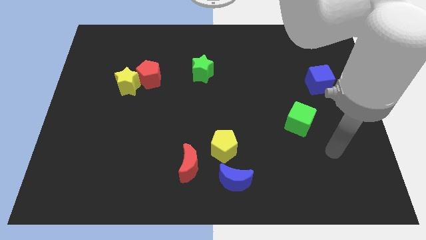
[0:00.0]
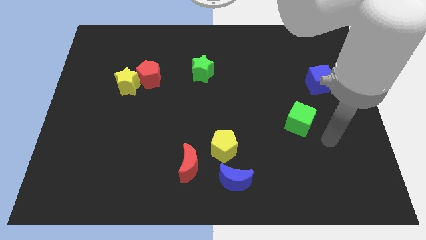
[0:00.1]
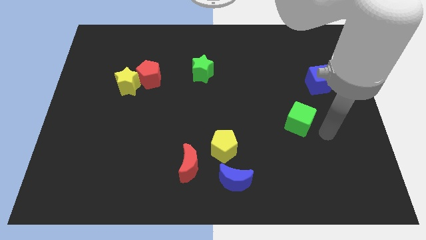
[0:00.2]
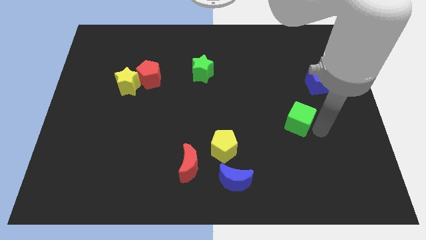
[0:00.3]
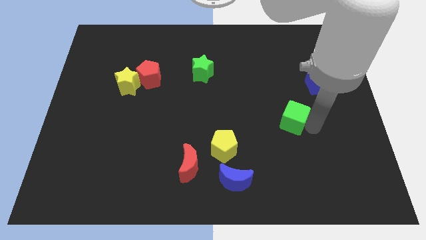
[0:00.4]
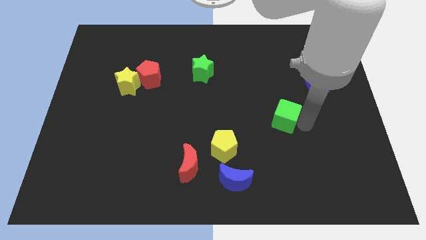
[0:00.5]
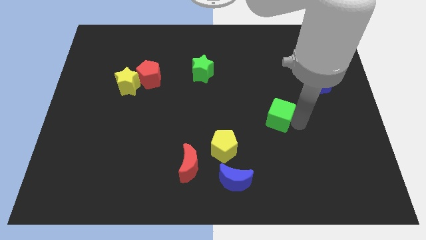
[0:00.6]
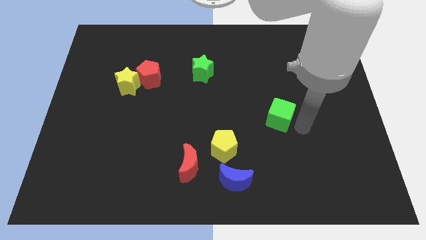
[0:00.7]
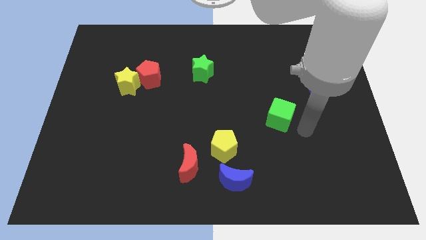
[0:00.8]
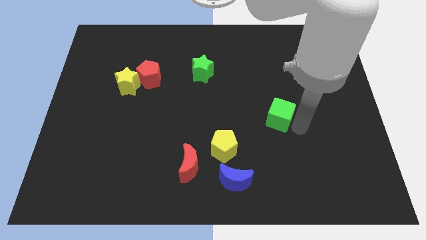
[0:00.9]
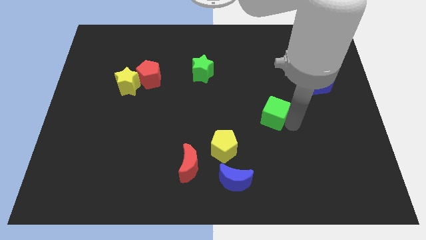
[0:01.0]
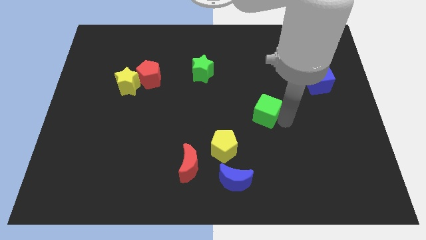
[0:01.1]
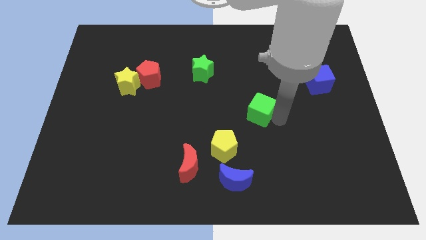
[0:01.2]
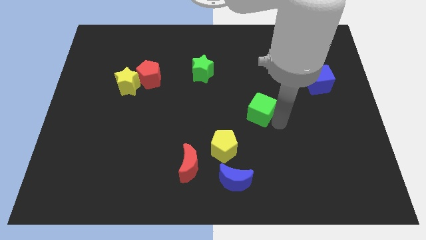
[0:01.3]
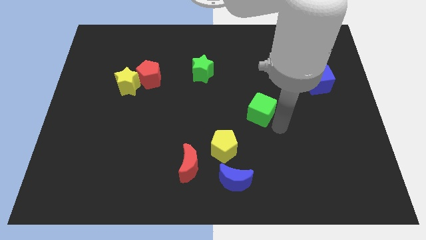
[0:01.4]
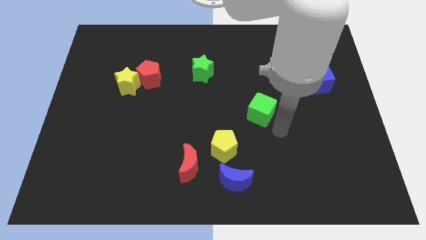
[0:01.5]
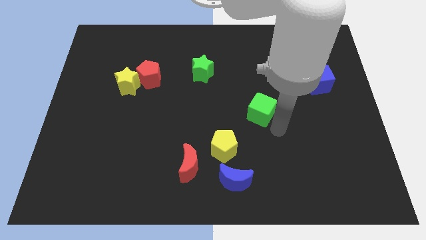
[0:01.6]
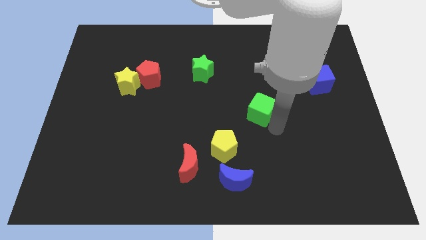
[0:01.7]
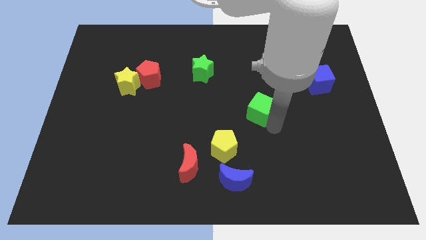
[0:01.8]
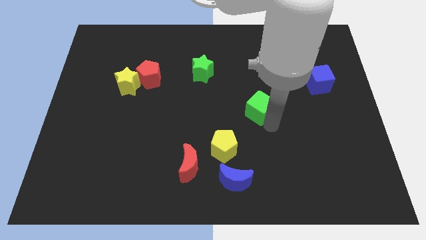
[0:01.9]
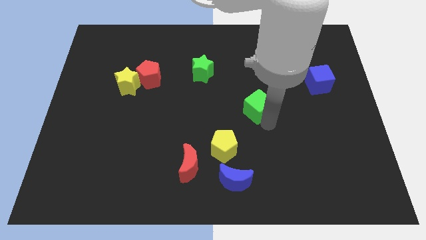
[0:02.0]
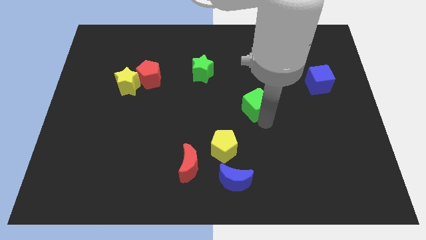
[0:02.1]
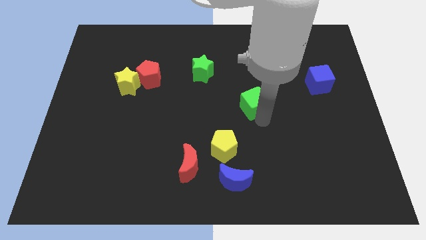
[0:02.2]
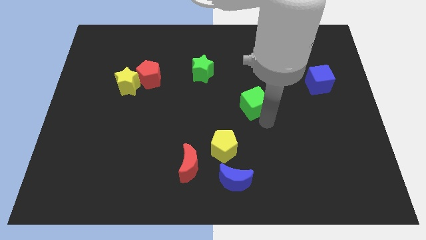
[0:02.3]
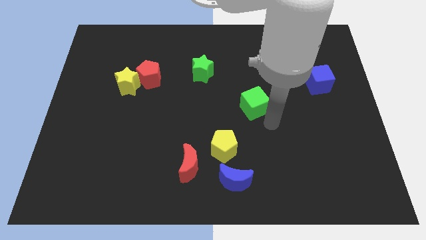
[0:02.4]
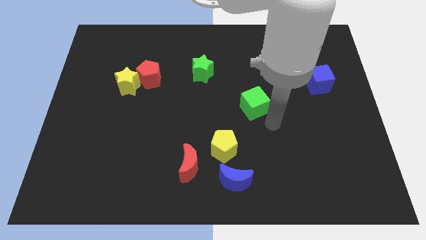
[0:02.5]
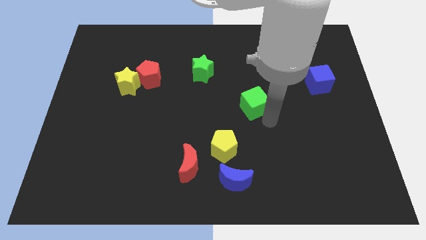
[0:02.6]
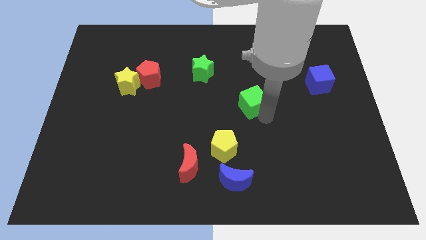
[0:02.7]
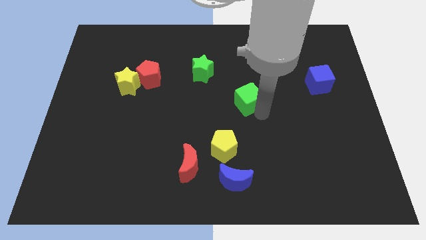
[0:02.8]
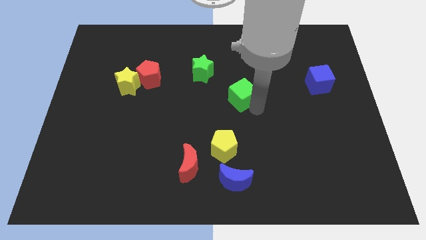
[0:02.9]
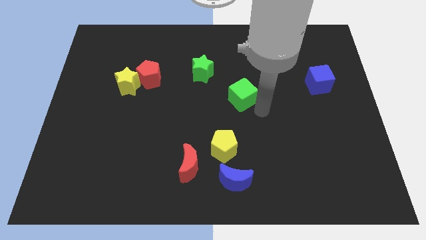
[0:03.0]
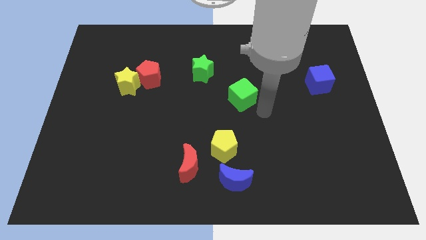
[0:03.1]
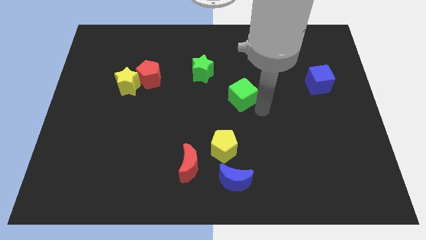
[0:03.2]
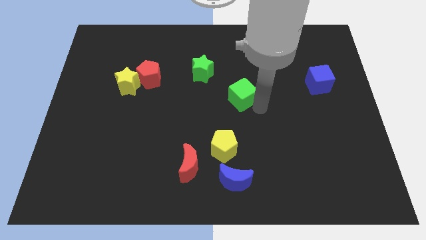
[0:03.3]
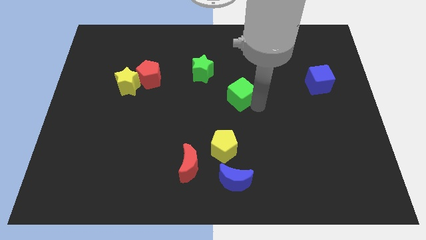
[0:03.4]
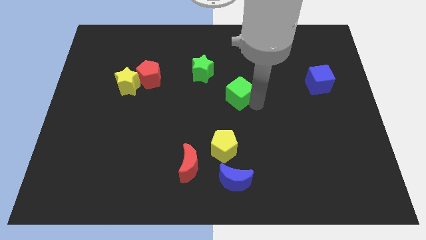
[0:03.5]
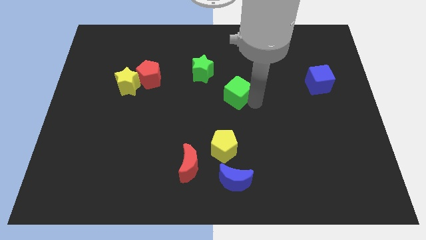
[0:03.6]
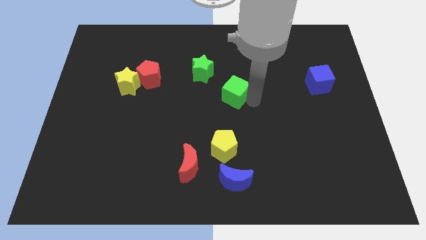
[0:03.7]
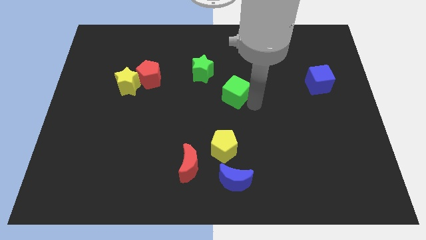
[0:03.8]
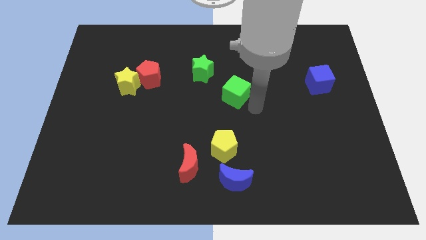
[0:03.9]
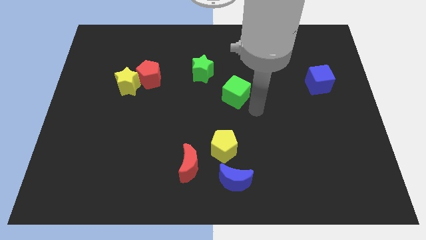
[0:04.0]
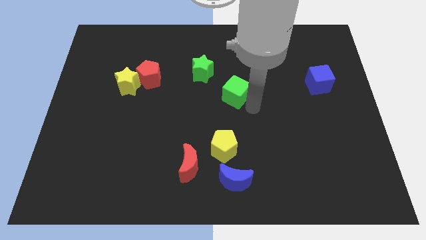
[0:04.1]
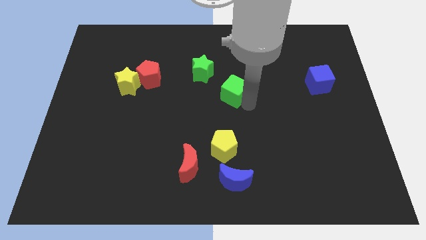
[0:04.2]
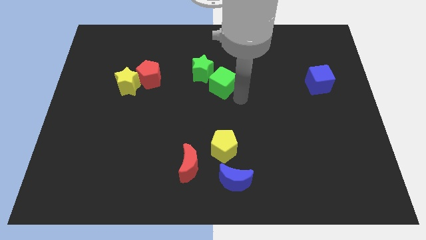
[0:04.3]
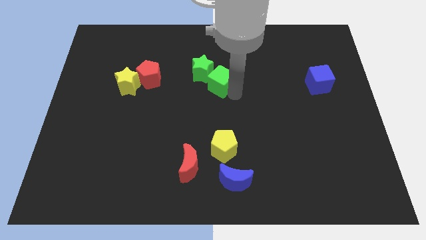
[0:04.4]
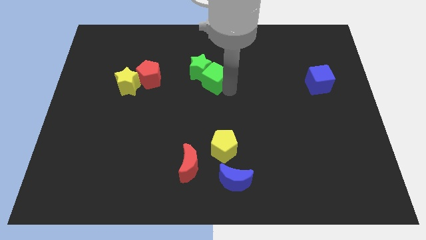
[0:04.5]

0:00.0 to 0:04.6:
slide the green cube towards the green star

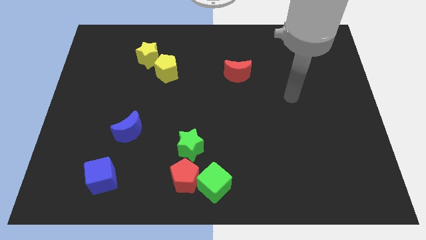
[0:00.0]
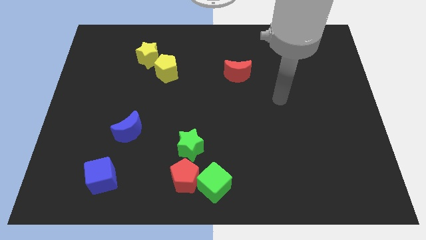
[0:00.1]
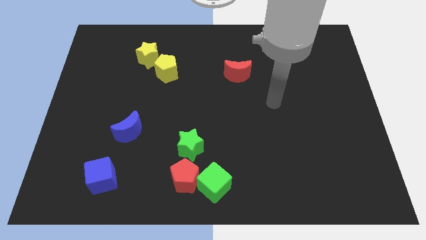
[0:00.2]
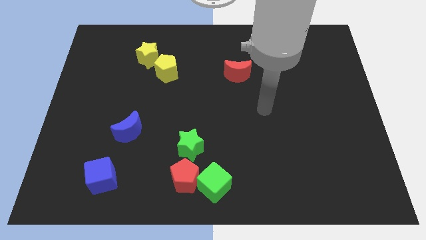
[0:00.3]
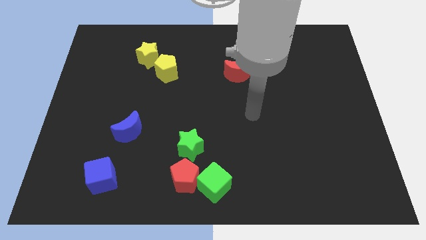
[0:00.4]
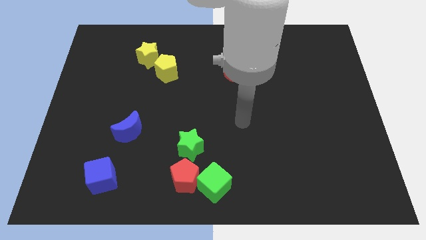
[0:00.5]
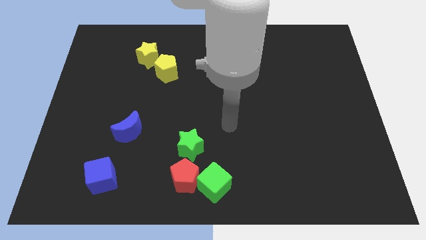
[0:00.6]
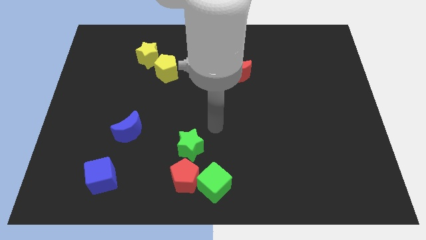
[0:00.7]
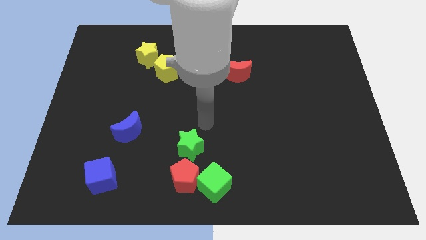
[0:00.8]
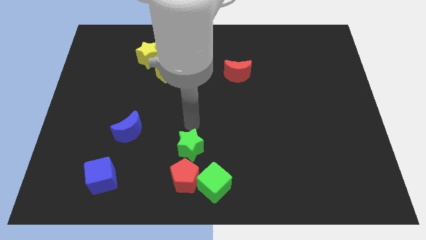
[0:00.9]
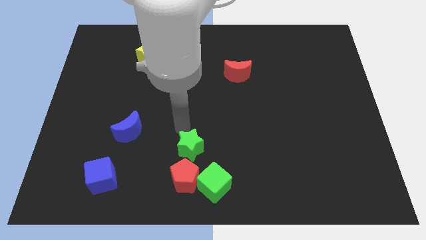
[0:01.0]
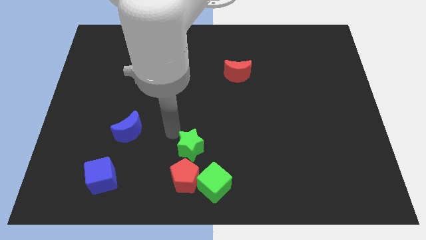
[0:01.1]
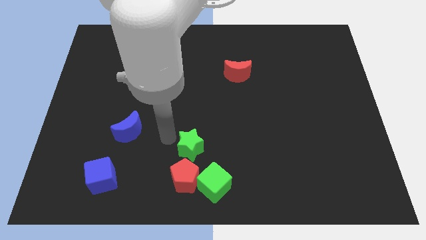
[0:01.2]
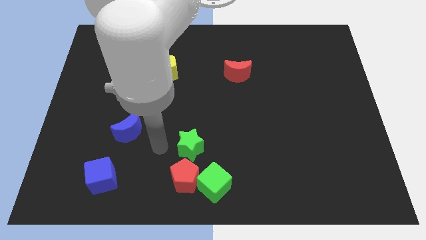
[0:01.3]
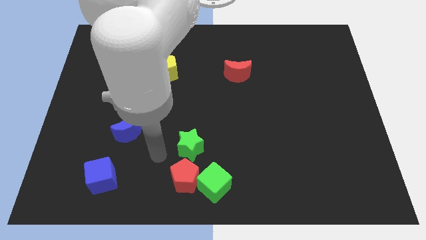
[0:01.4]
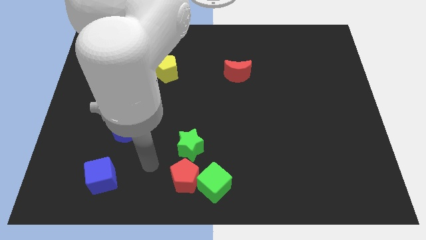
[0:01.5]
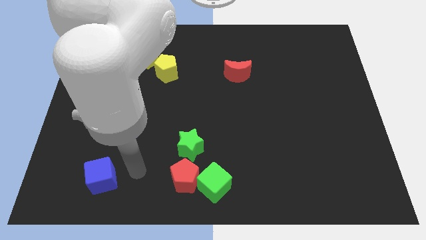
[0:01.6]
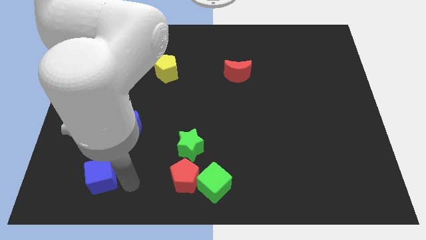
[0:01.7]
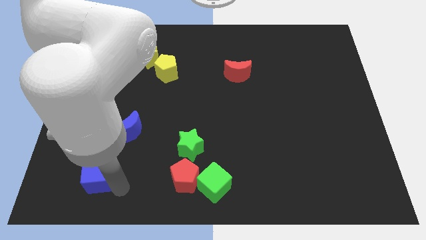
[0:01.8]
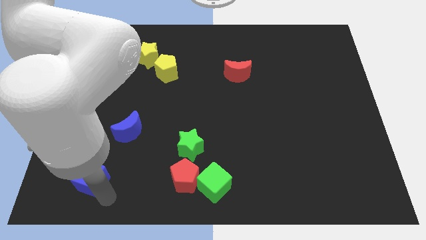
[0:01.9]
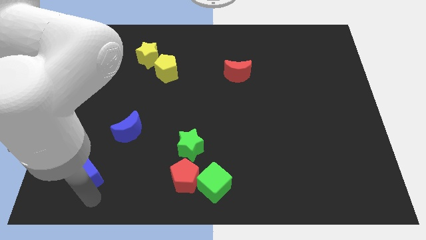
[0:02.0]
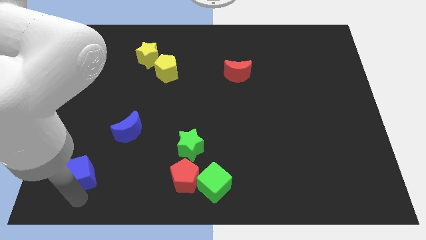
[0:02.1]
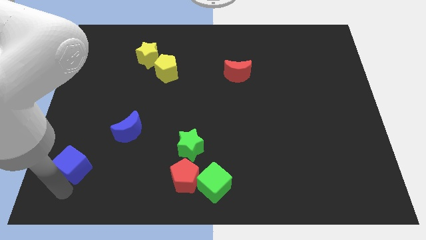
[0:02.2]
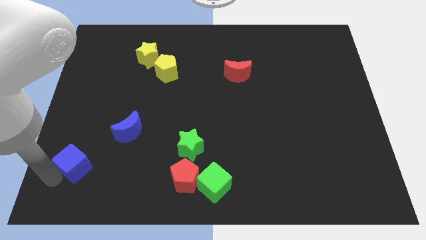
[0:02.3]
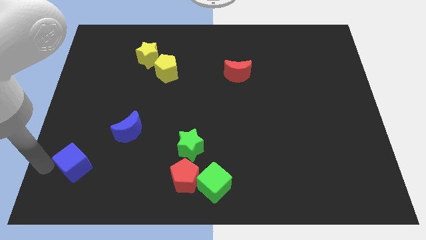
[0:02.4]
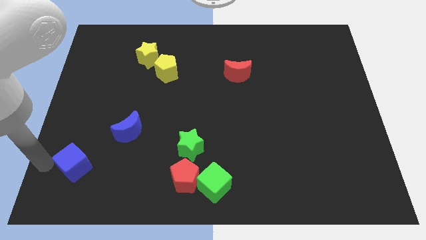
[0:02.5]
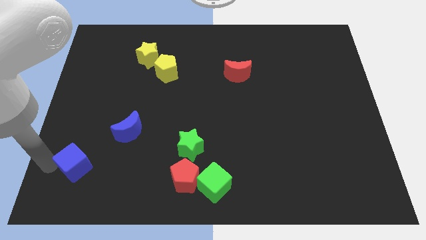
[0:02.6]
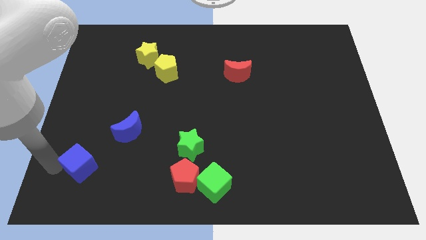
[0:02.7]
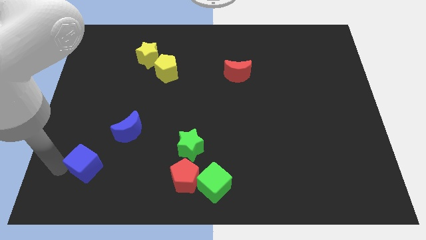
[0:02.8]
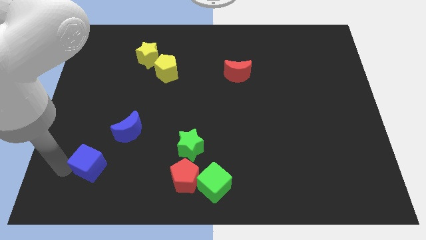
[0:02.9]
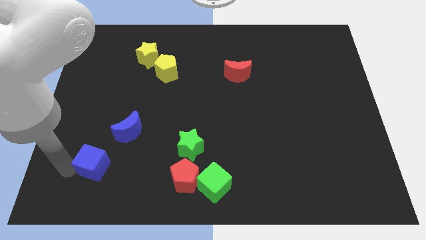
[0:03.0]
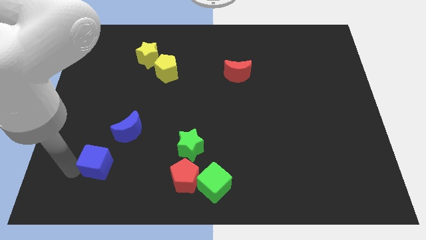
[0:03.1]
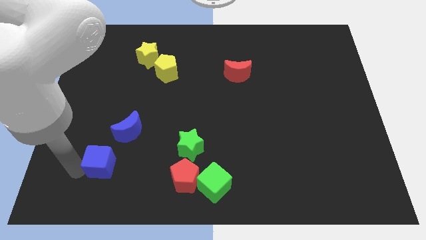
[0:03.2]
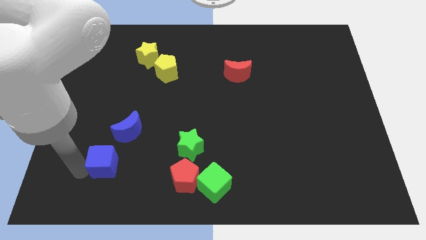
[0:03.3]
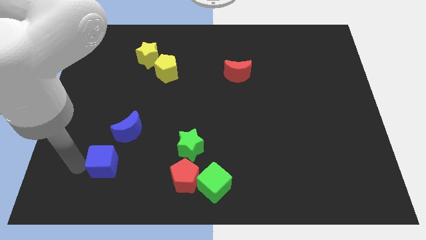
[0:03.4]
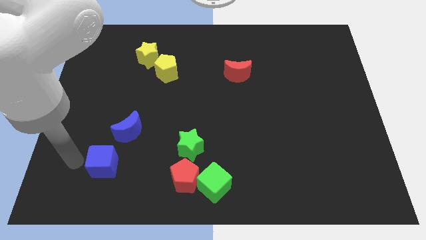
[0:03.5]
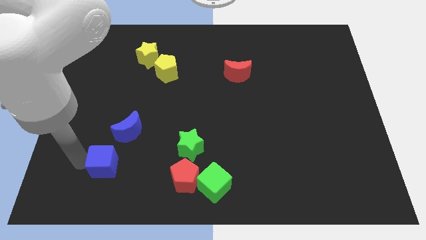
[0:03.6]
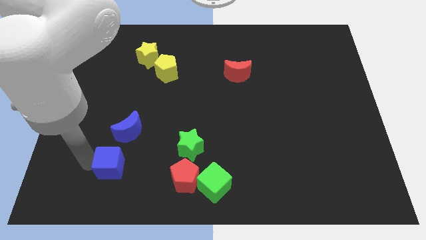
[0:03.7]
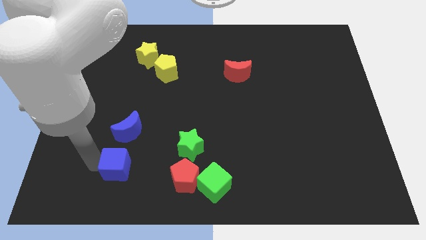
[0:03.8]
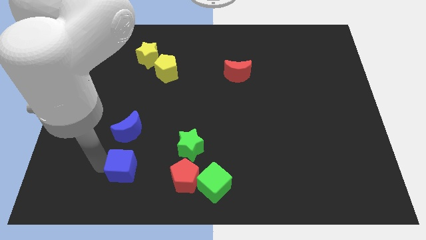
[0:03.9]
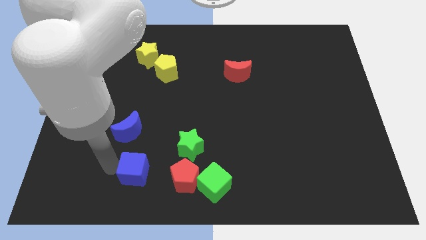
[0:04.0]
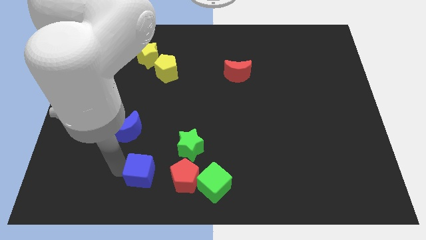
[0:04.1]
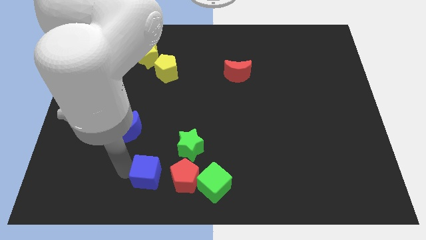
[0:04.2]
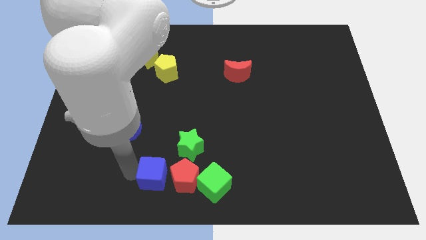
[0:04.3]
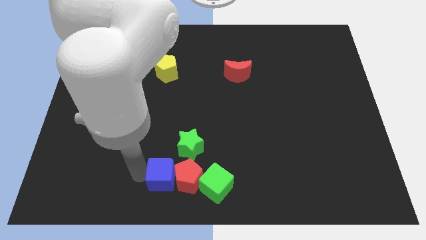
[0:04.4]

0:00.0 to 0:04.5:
push the blue cube close to the red pentagon
